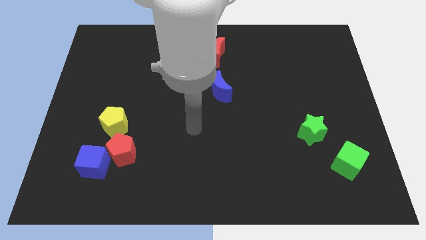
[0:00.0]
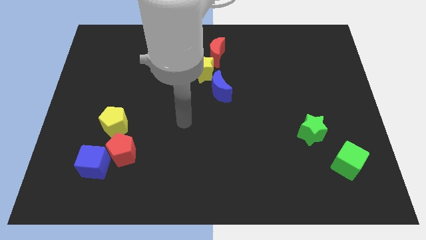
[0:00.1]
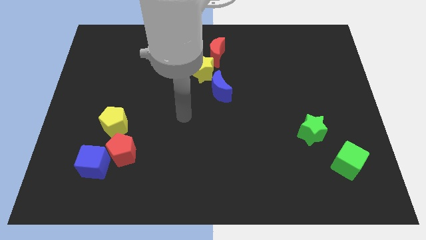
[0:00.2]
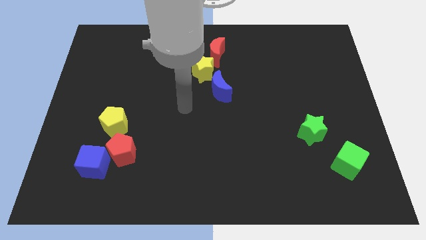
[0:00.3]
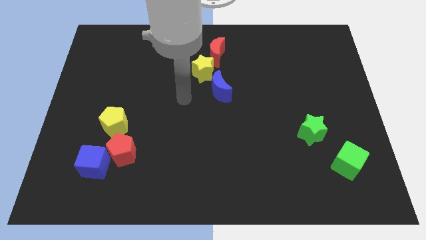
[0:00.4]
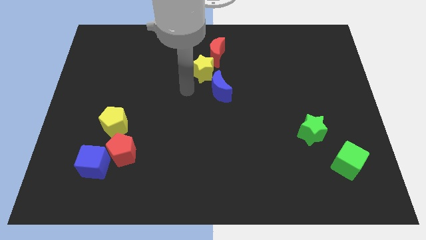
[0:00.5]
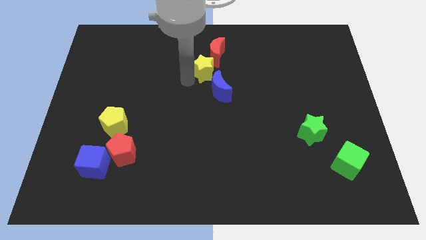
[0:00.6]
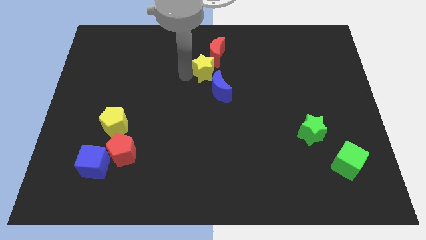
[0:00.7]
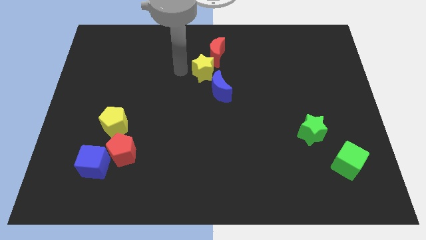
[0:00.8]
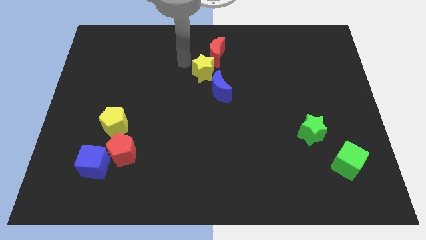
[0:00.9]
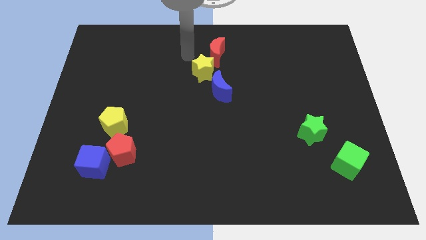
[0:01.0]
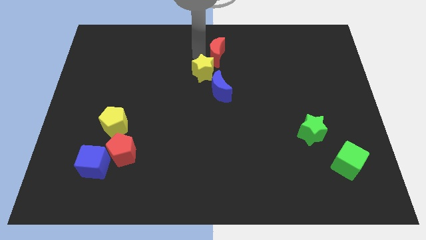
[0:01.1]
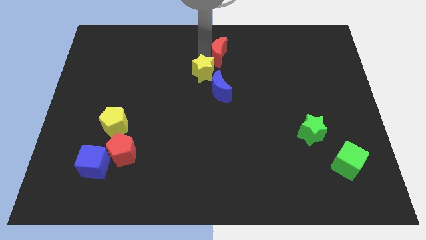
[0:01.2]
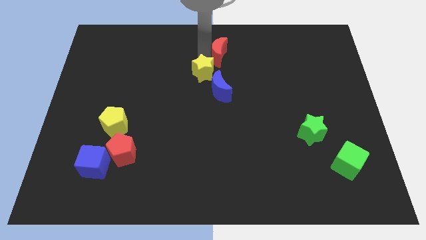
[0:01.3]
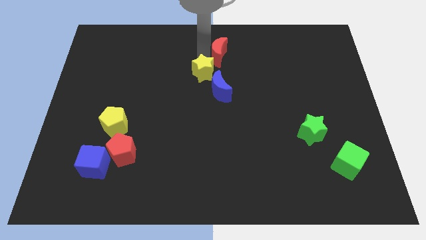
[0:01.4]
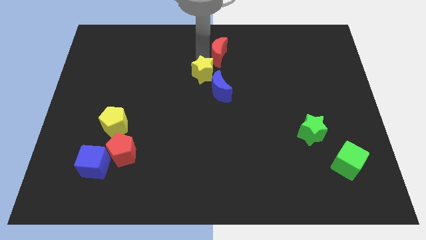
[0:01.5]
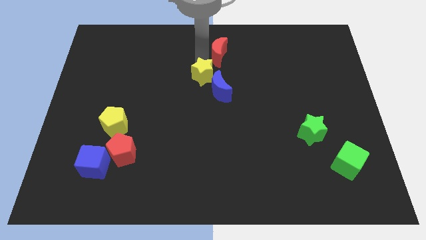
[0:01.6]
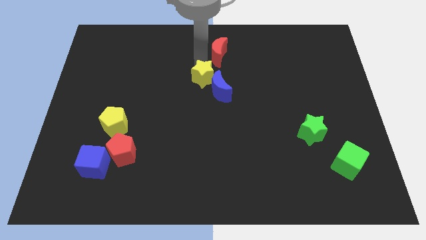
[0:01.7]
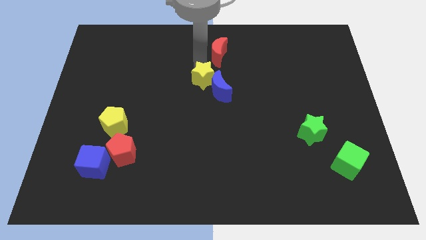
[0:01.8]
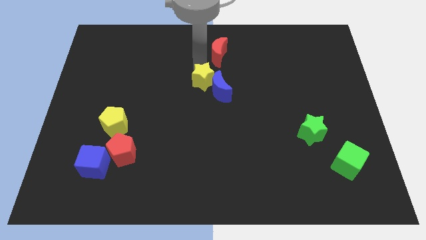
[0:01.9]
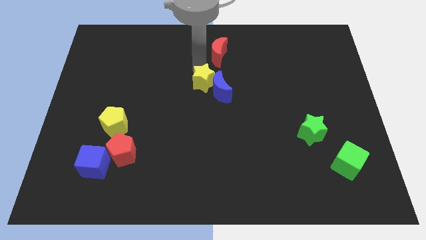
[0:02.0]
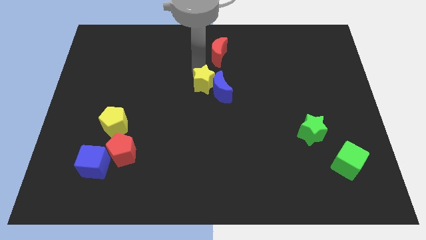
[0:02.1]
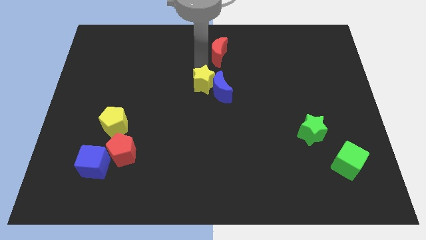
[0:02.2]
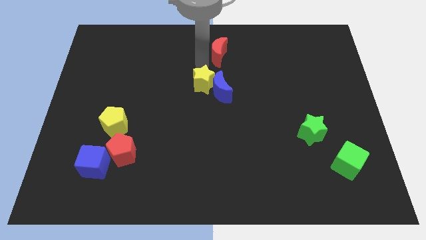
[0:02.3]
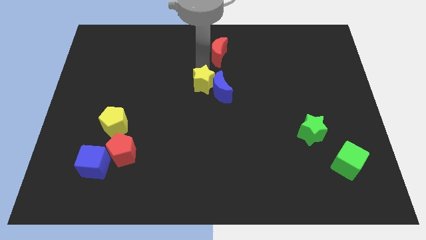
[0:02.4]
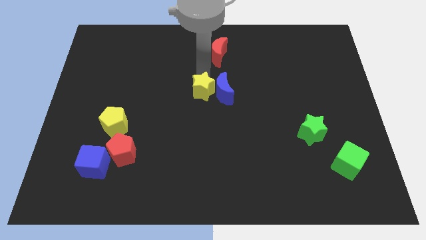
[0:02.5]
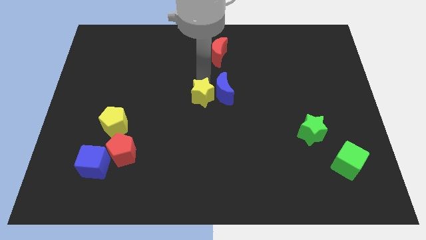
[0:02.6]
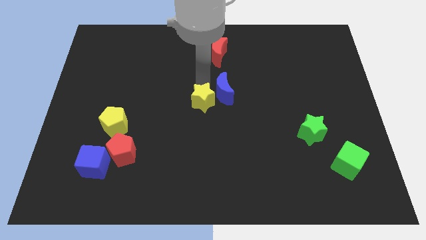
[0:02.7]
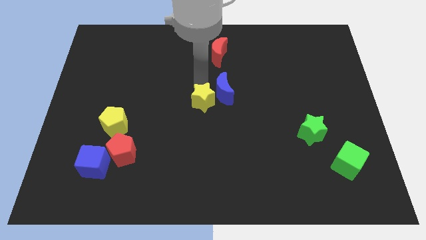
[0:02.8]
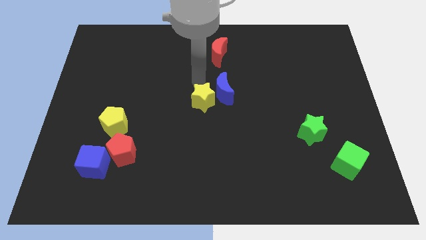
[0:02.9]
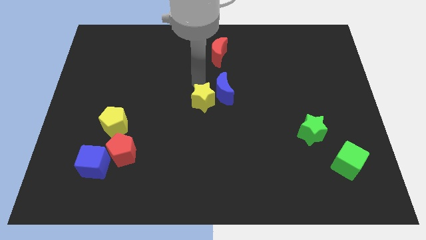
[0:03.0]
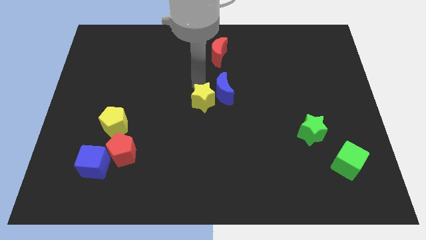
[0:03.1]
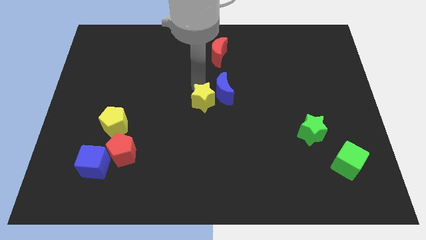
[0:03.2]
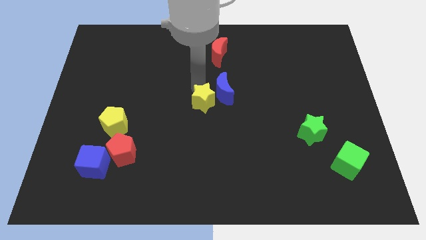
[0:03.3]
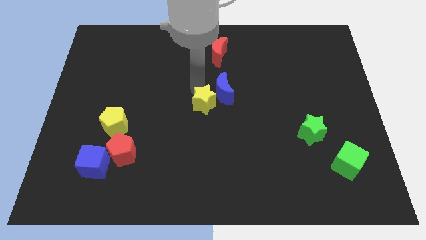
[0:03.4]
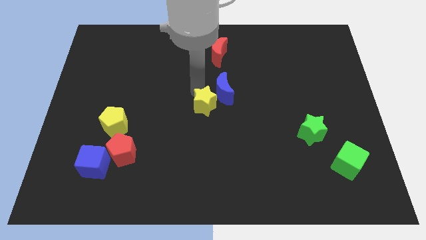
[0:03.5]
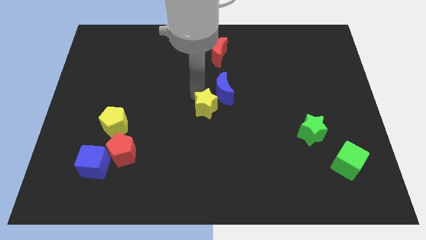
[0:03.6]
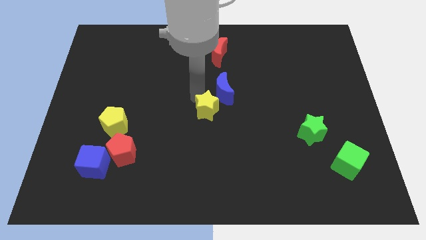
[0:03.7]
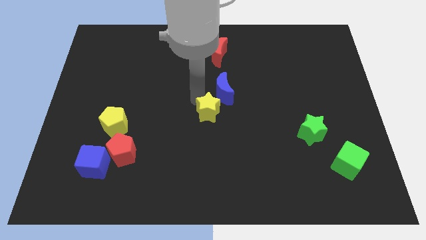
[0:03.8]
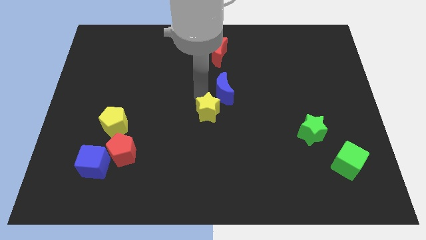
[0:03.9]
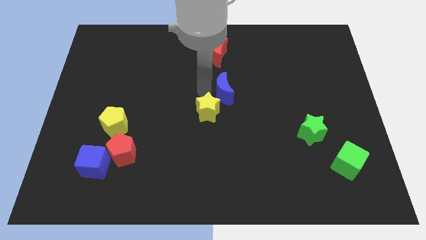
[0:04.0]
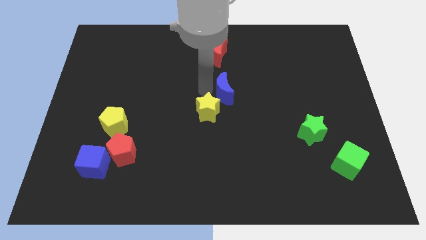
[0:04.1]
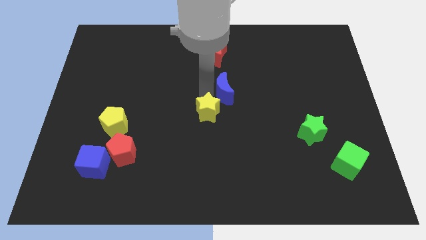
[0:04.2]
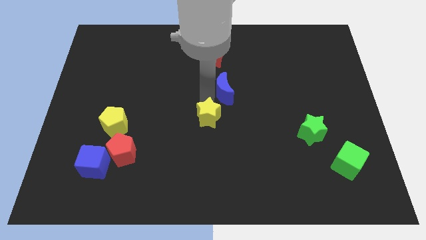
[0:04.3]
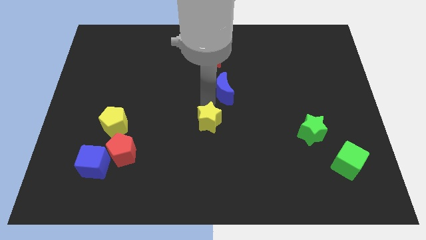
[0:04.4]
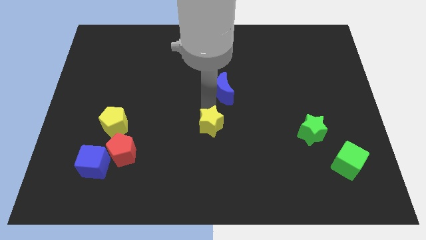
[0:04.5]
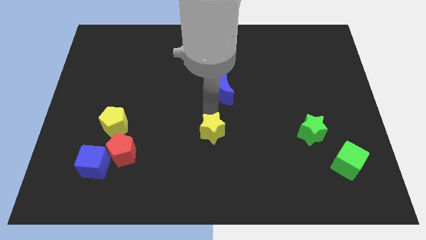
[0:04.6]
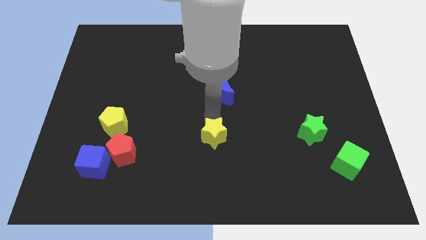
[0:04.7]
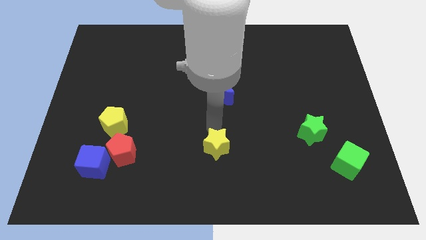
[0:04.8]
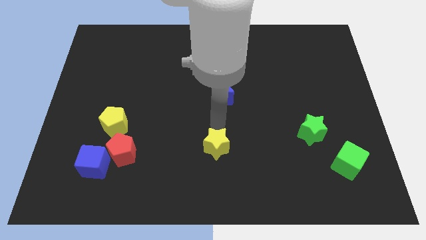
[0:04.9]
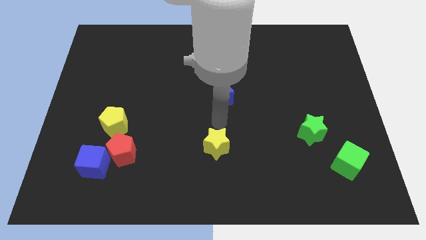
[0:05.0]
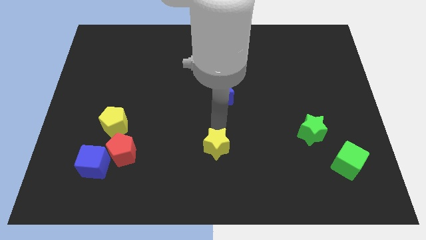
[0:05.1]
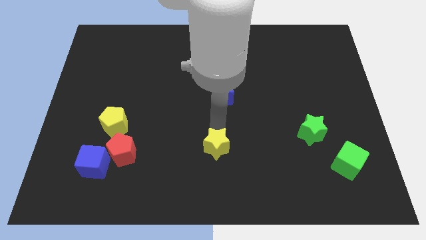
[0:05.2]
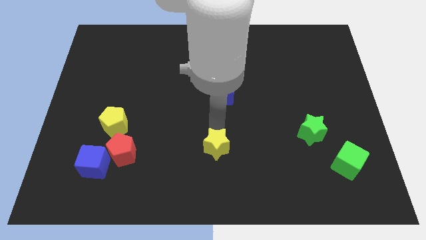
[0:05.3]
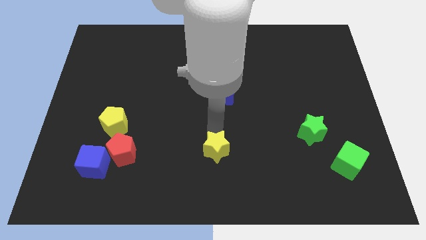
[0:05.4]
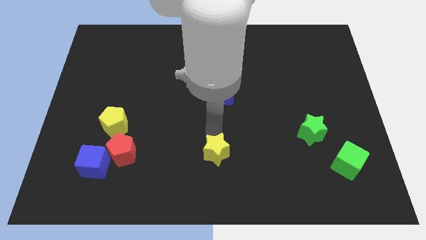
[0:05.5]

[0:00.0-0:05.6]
push the yellow star to the bottom

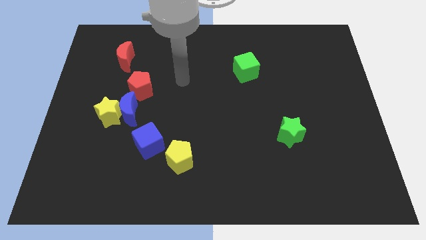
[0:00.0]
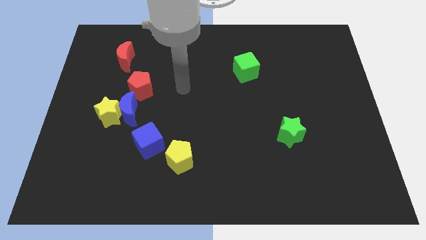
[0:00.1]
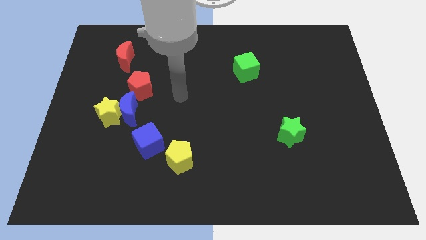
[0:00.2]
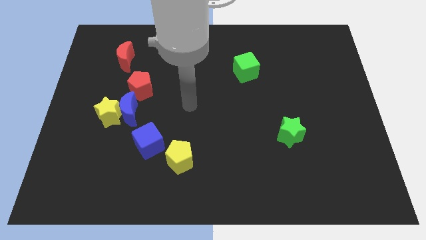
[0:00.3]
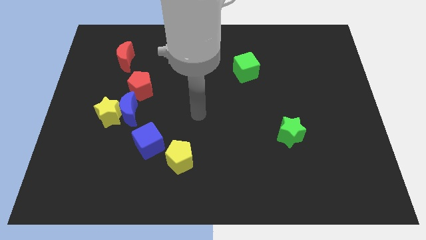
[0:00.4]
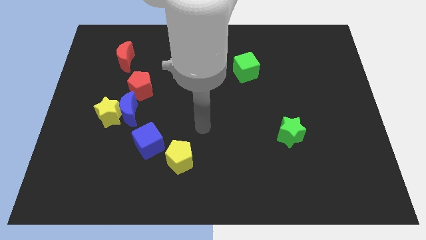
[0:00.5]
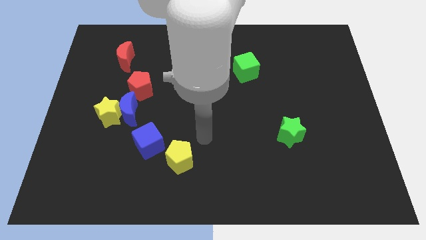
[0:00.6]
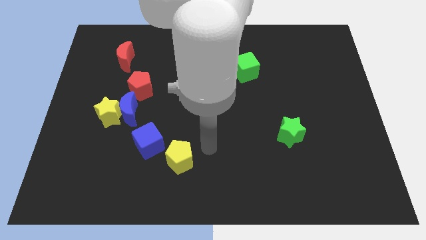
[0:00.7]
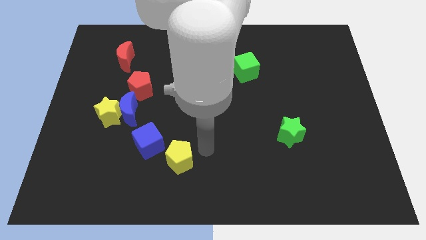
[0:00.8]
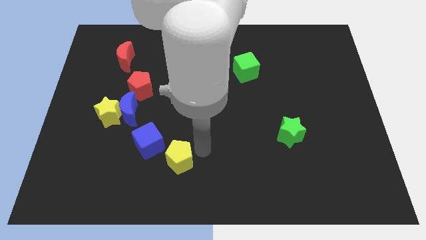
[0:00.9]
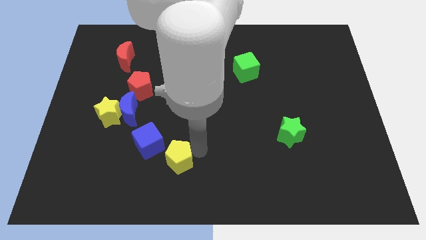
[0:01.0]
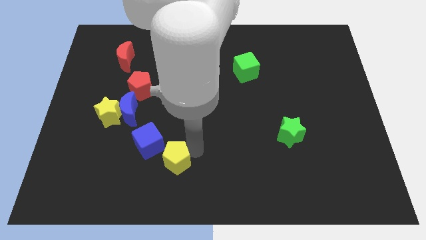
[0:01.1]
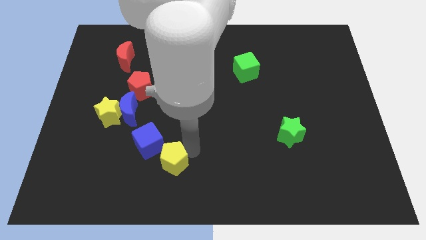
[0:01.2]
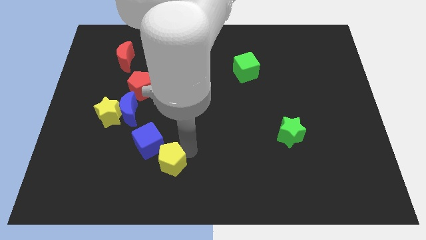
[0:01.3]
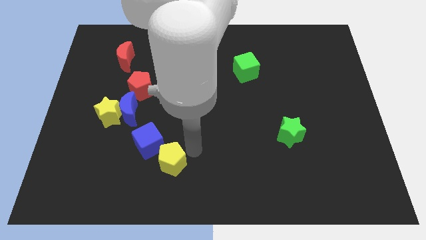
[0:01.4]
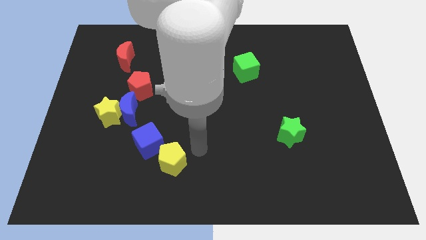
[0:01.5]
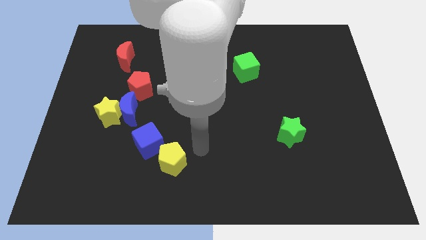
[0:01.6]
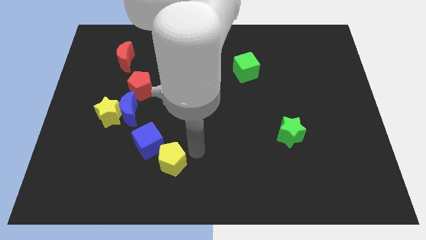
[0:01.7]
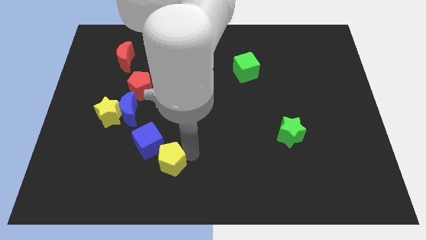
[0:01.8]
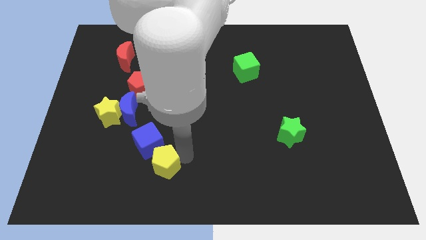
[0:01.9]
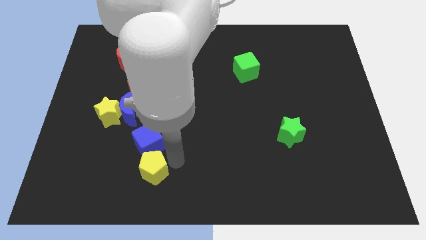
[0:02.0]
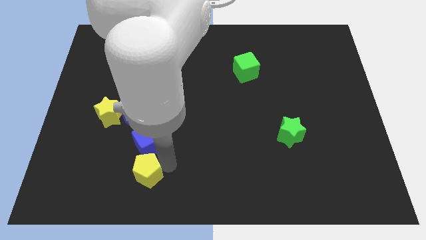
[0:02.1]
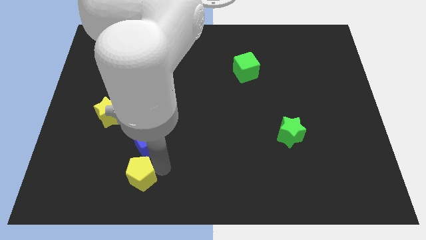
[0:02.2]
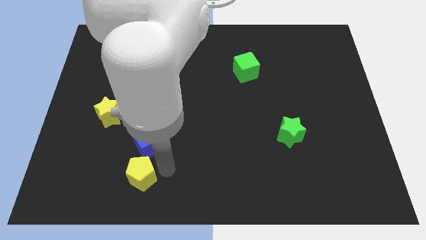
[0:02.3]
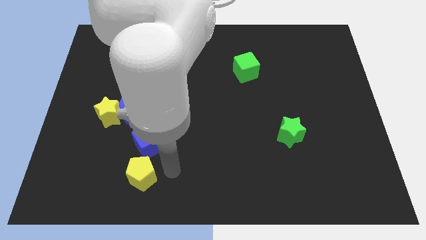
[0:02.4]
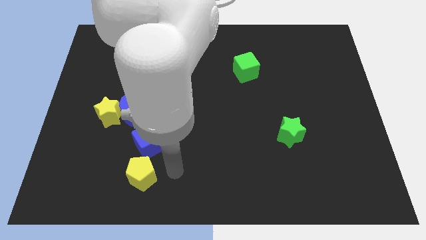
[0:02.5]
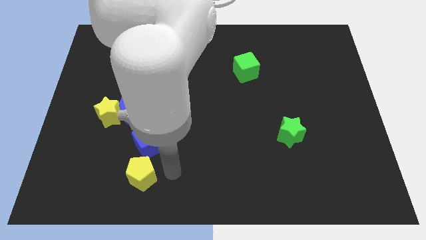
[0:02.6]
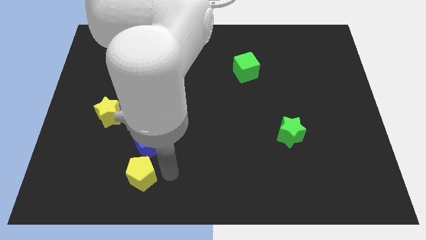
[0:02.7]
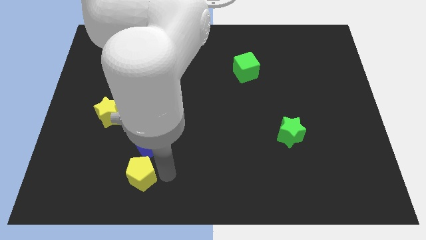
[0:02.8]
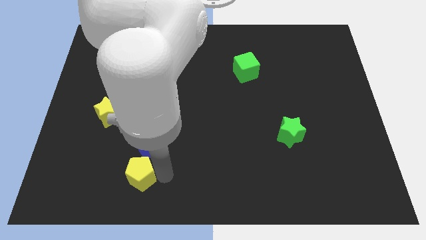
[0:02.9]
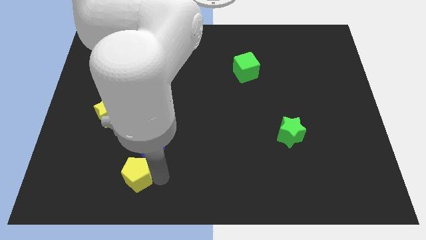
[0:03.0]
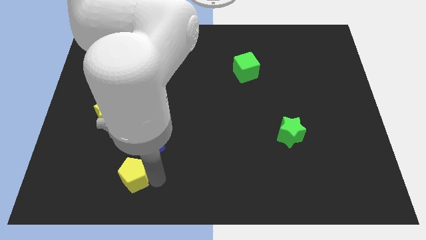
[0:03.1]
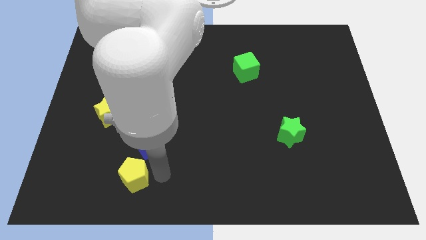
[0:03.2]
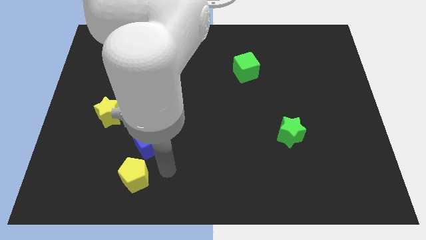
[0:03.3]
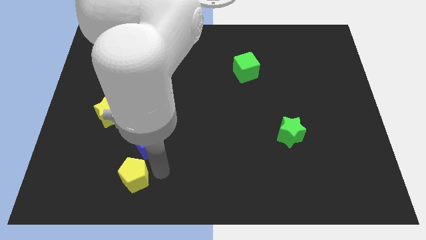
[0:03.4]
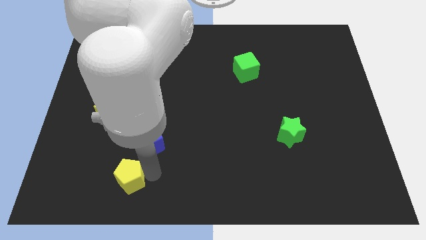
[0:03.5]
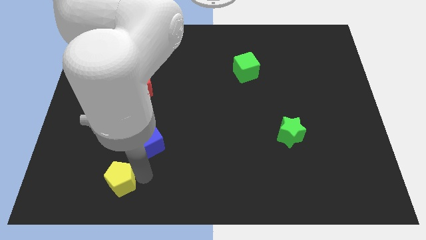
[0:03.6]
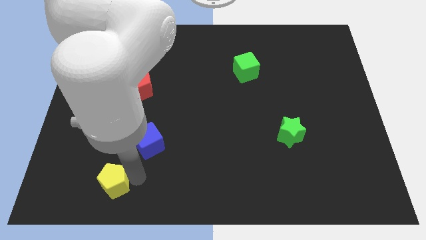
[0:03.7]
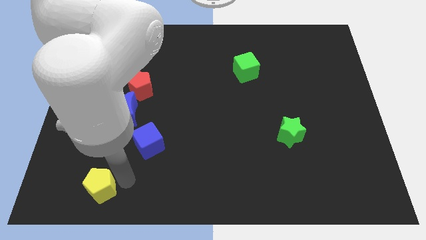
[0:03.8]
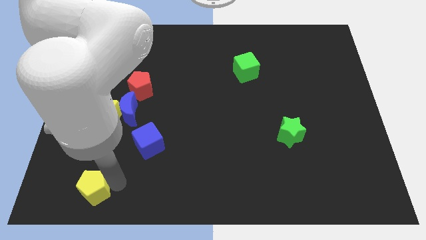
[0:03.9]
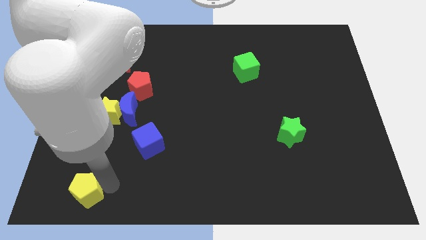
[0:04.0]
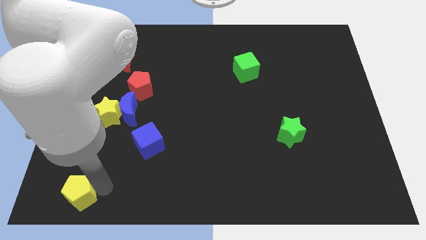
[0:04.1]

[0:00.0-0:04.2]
put the yellow pentagon to the bottom left corner
